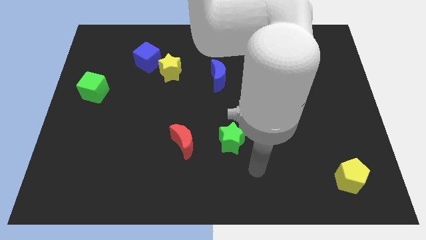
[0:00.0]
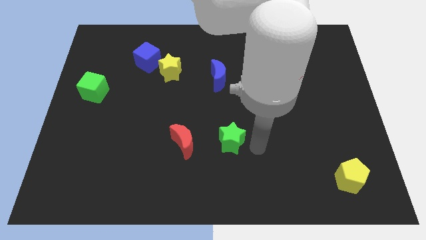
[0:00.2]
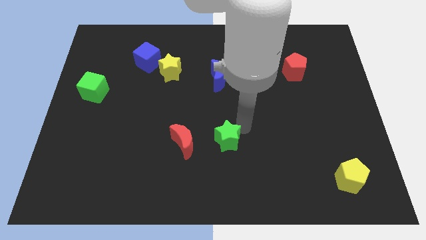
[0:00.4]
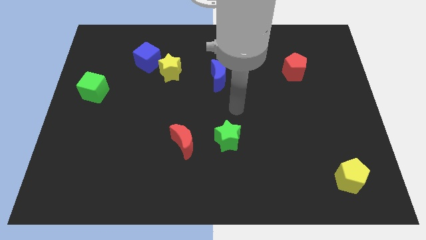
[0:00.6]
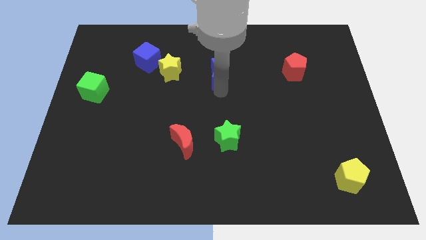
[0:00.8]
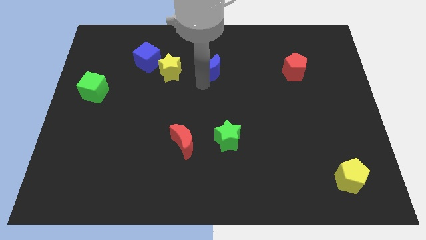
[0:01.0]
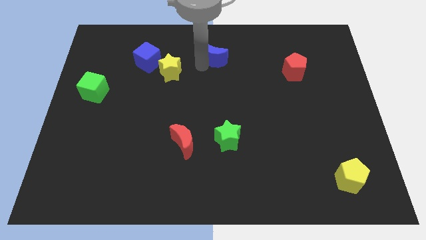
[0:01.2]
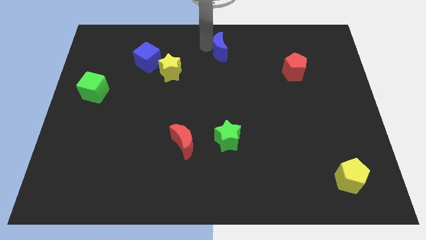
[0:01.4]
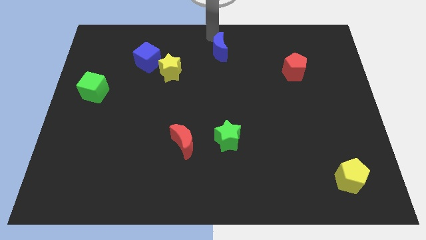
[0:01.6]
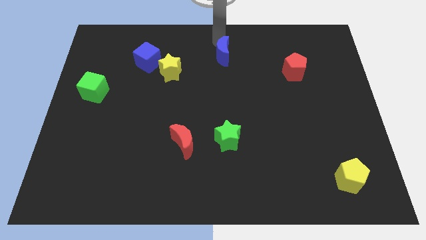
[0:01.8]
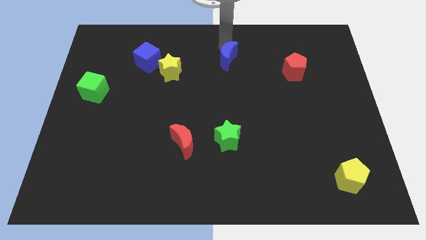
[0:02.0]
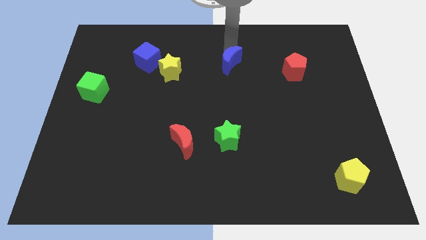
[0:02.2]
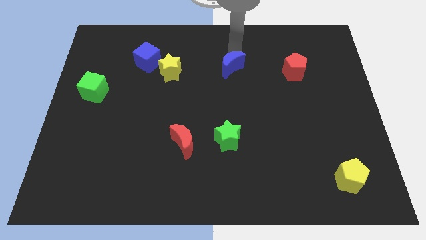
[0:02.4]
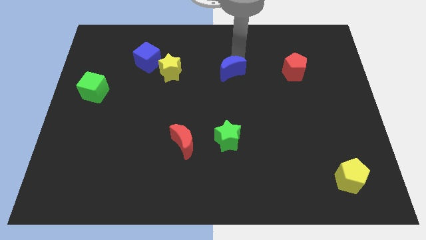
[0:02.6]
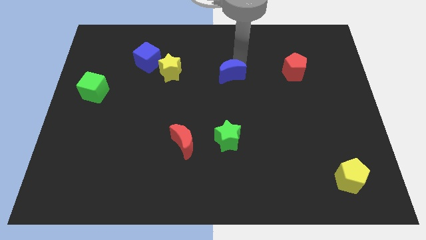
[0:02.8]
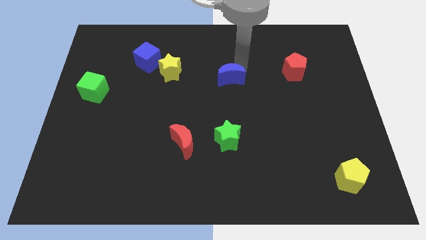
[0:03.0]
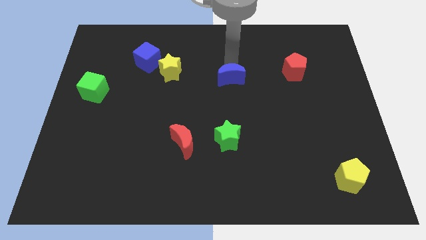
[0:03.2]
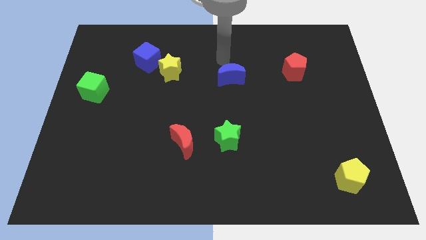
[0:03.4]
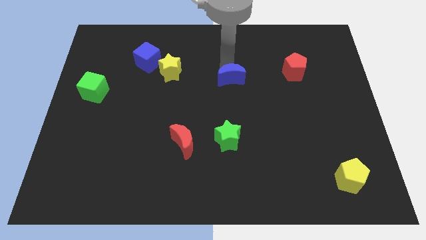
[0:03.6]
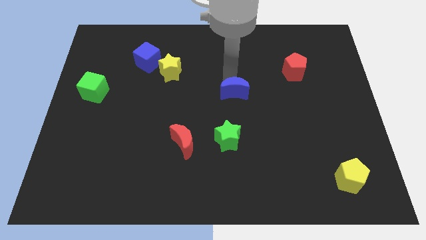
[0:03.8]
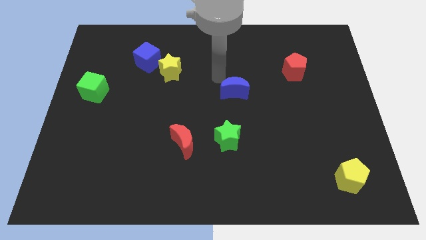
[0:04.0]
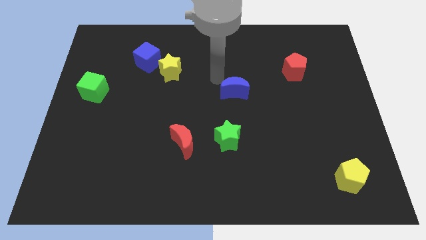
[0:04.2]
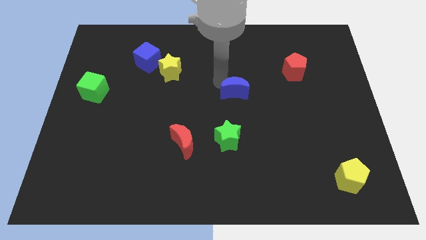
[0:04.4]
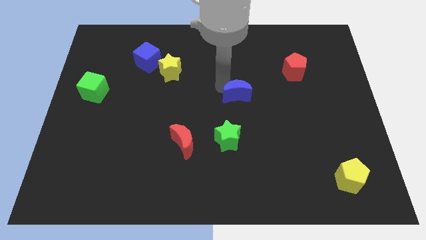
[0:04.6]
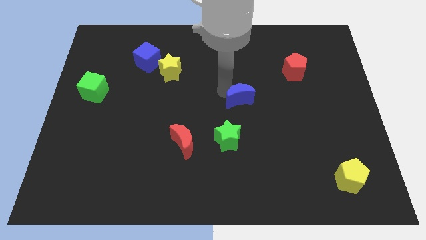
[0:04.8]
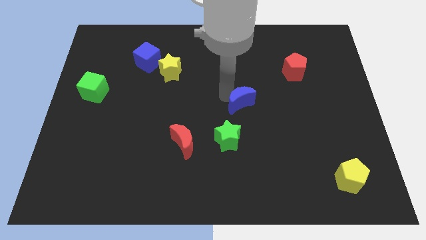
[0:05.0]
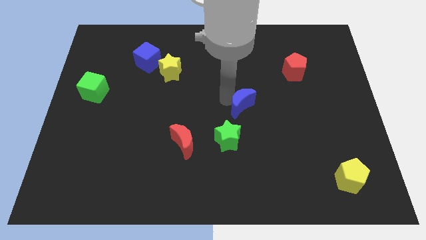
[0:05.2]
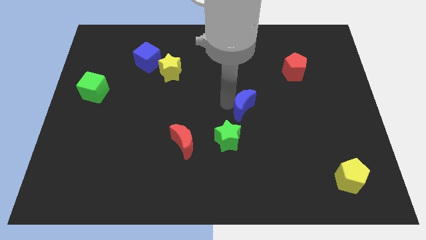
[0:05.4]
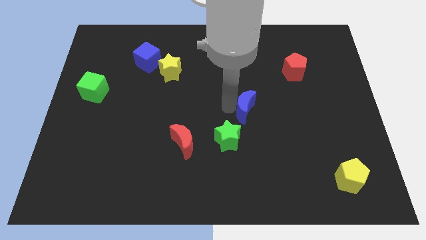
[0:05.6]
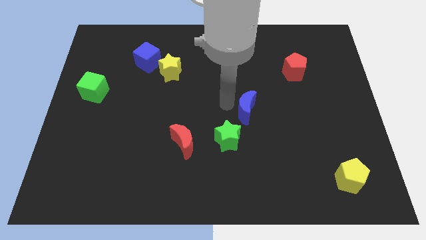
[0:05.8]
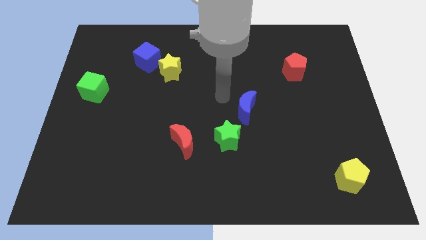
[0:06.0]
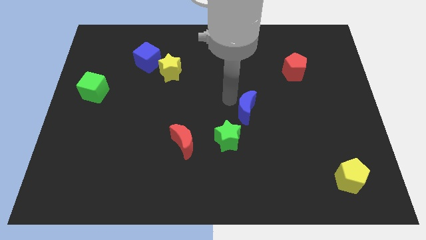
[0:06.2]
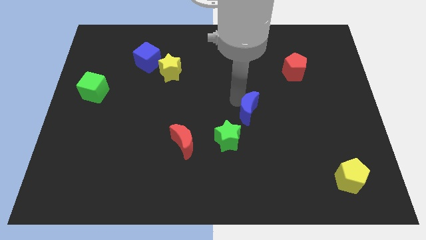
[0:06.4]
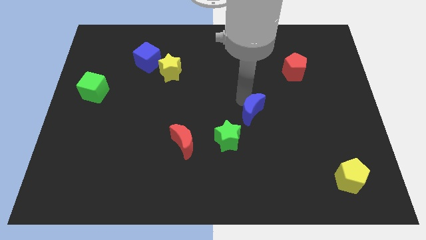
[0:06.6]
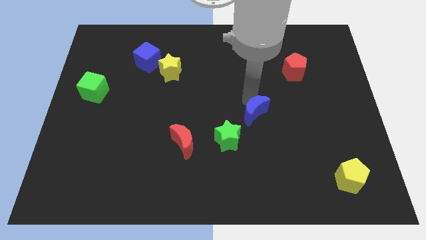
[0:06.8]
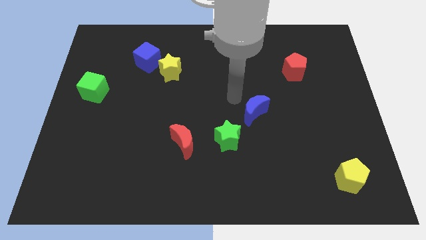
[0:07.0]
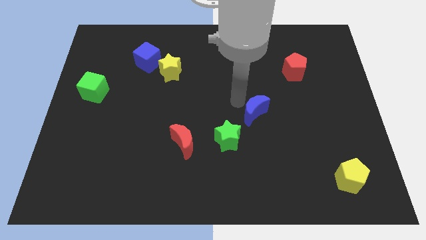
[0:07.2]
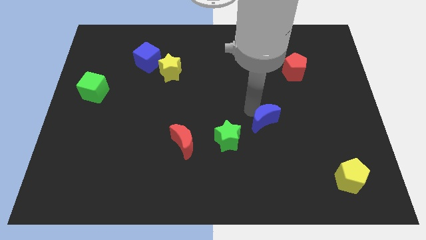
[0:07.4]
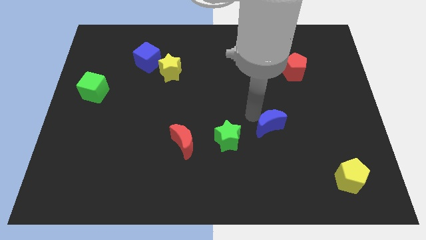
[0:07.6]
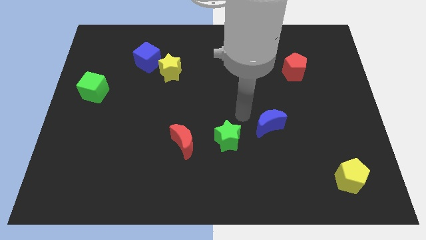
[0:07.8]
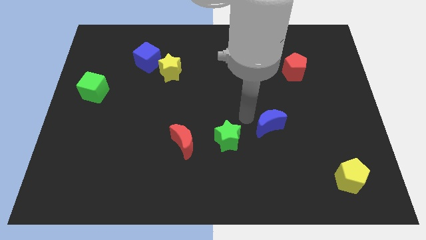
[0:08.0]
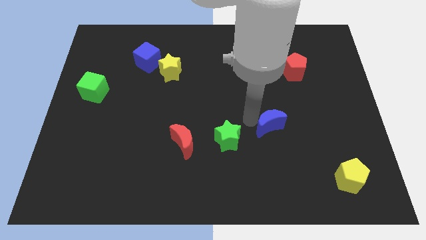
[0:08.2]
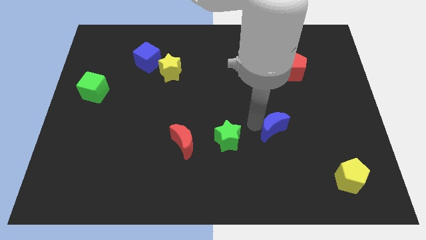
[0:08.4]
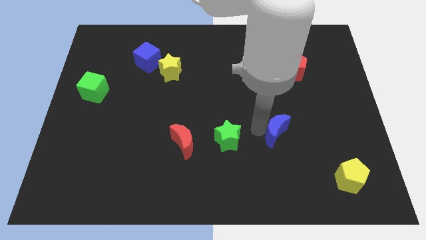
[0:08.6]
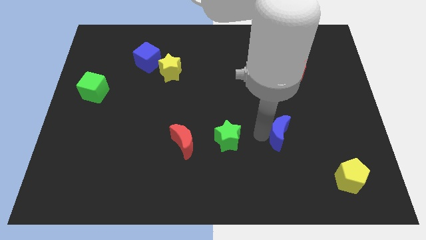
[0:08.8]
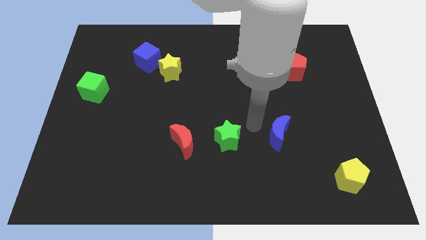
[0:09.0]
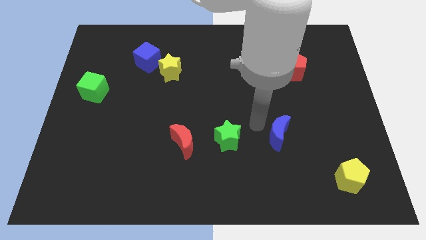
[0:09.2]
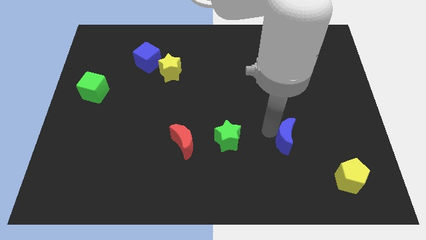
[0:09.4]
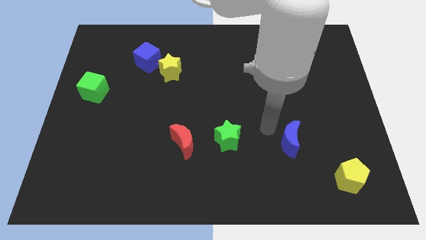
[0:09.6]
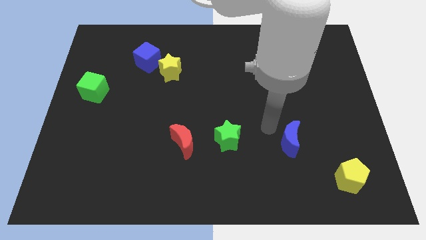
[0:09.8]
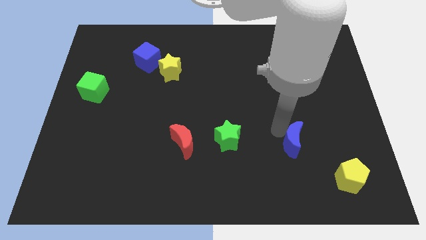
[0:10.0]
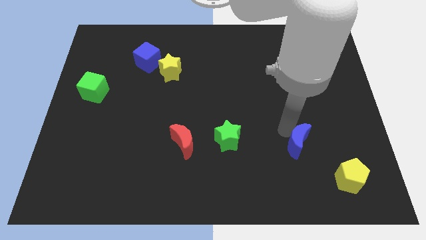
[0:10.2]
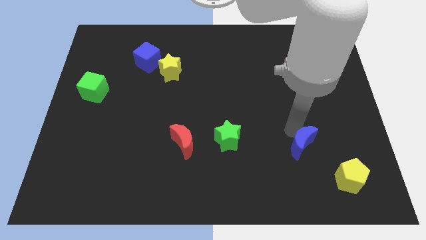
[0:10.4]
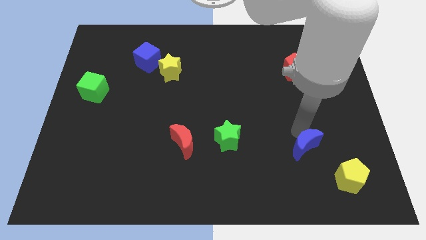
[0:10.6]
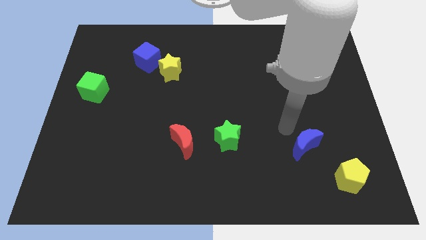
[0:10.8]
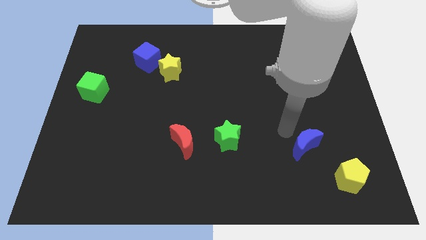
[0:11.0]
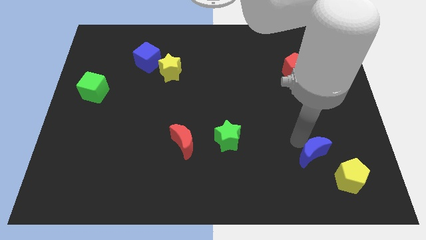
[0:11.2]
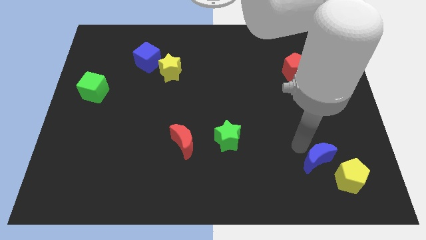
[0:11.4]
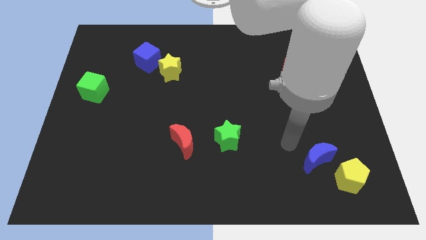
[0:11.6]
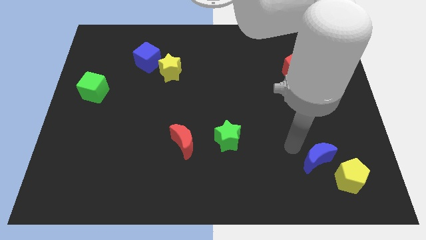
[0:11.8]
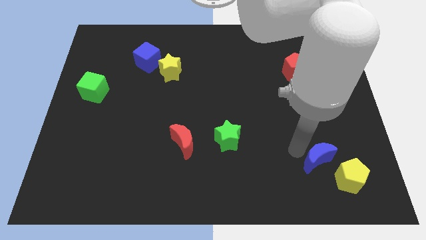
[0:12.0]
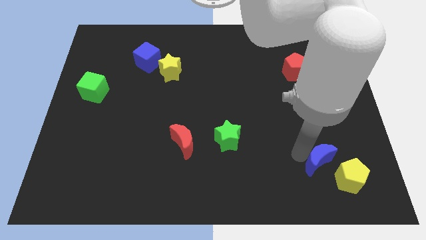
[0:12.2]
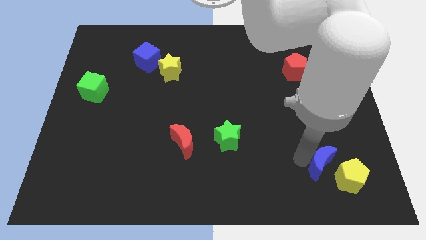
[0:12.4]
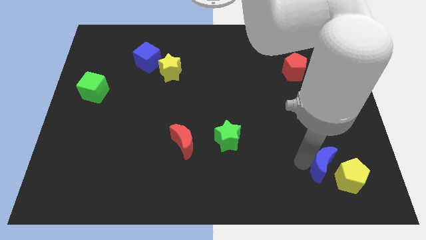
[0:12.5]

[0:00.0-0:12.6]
push the blue moon next to the yellow pentagon

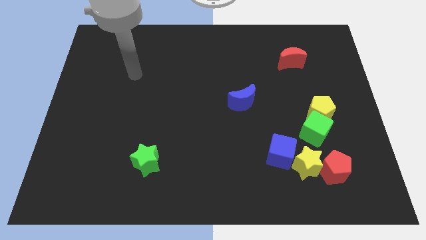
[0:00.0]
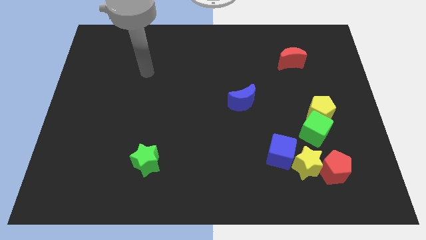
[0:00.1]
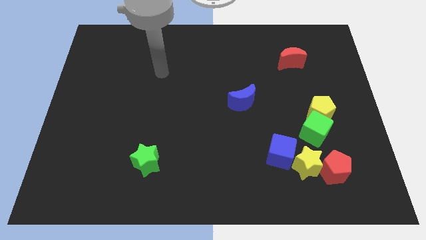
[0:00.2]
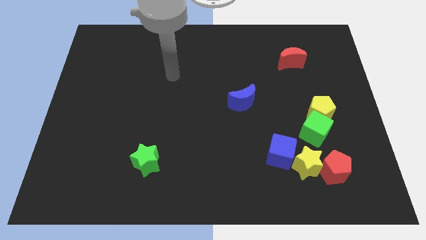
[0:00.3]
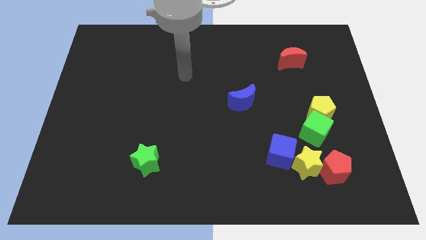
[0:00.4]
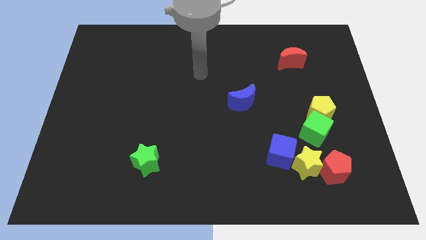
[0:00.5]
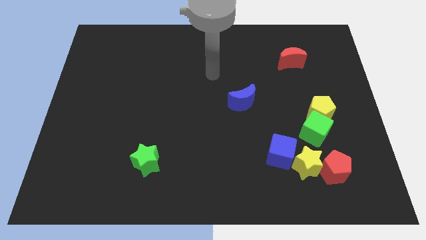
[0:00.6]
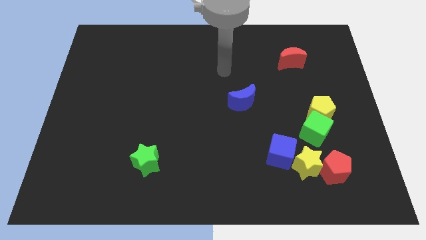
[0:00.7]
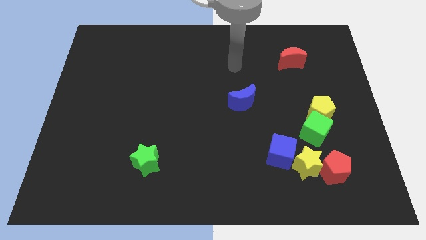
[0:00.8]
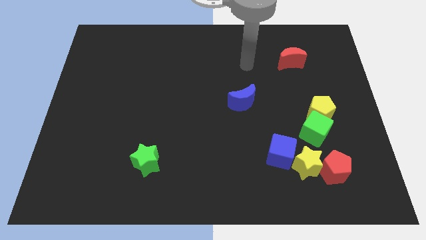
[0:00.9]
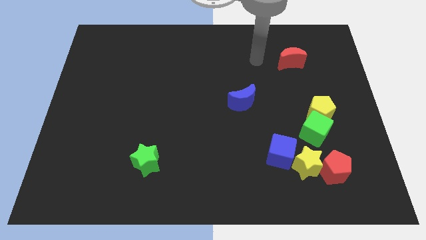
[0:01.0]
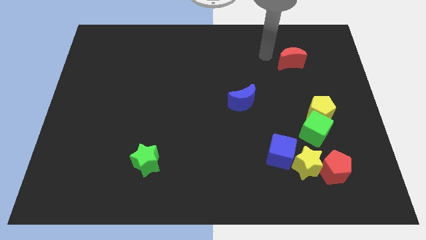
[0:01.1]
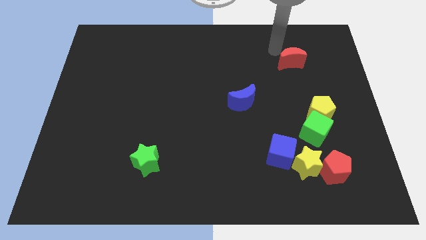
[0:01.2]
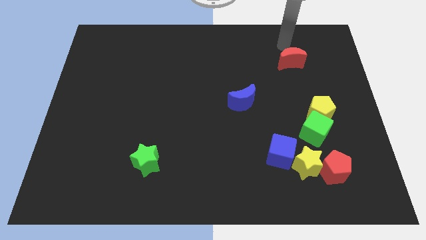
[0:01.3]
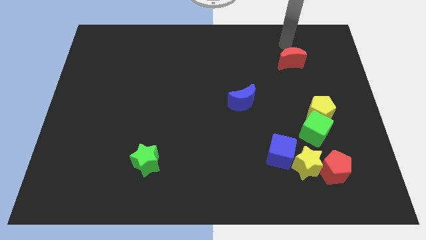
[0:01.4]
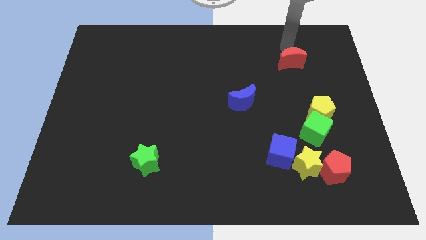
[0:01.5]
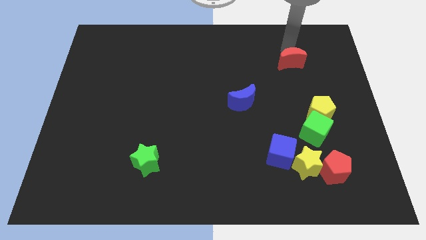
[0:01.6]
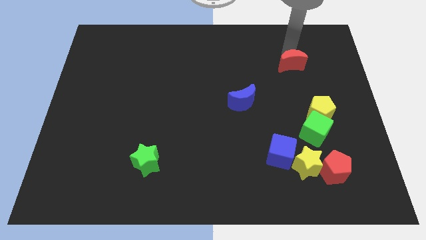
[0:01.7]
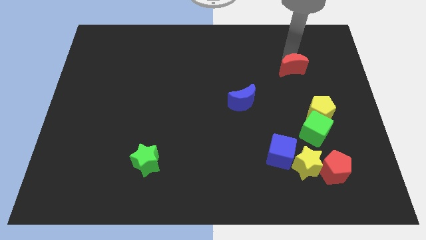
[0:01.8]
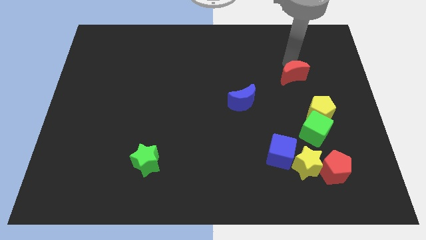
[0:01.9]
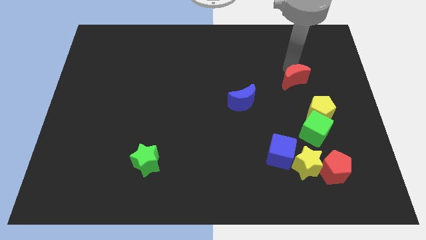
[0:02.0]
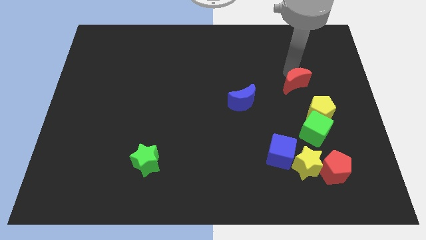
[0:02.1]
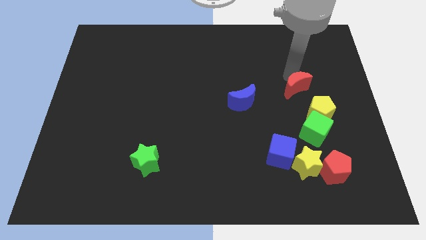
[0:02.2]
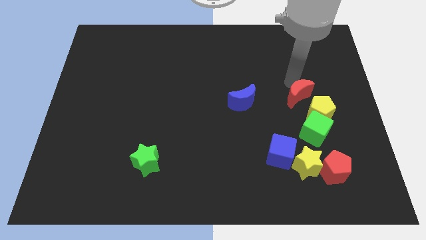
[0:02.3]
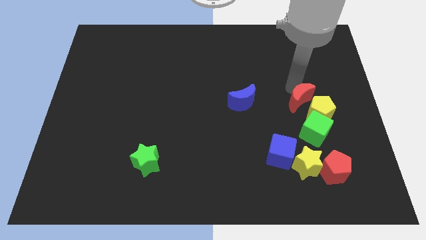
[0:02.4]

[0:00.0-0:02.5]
put the red moon towards the yellow pentagon
